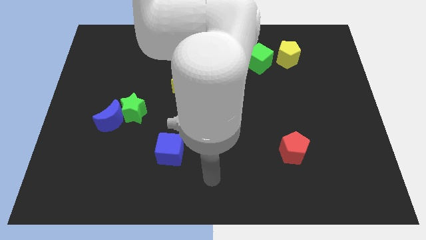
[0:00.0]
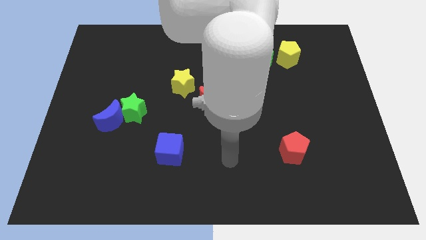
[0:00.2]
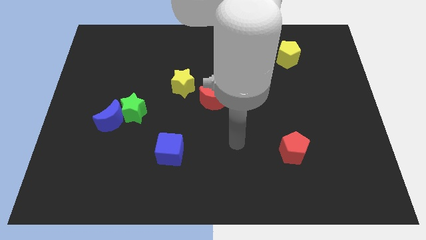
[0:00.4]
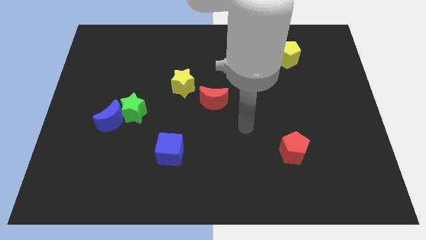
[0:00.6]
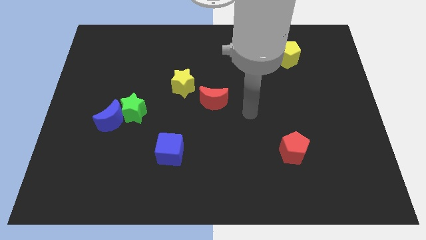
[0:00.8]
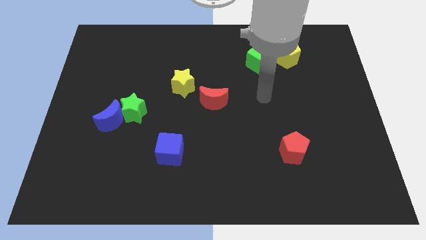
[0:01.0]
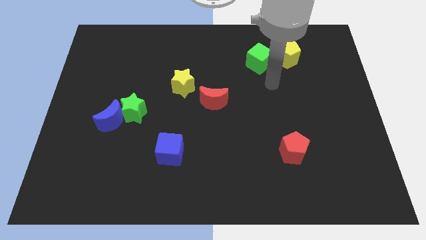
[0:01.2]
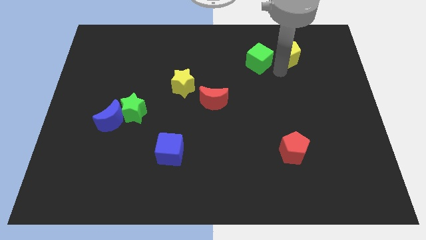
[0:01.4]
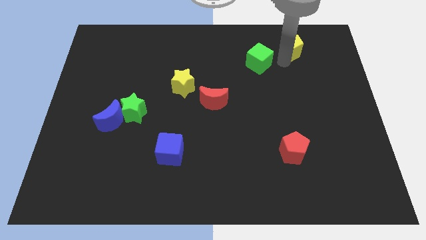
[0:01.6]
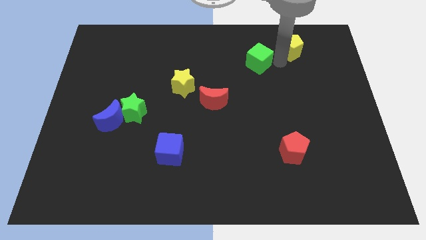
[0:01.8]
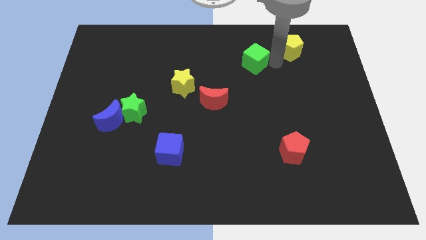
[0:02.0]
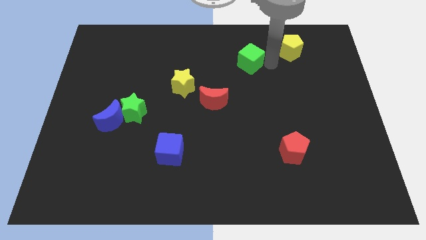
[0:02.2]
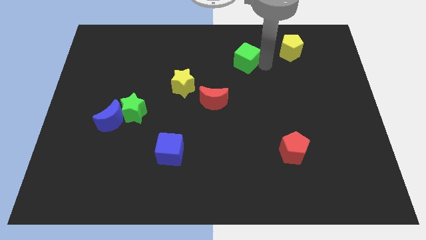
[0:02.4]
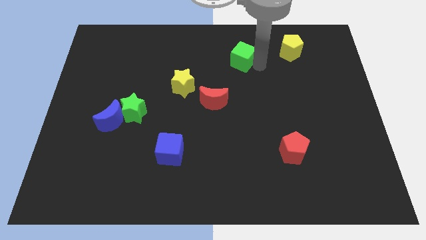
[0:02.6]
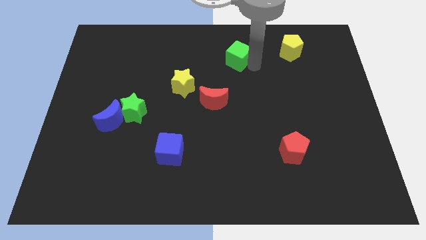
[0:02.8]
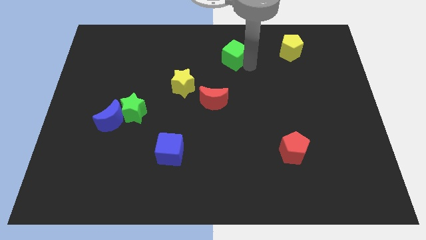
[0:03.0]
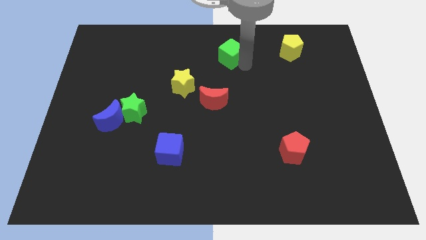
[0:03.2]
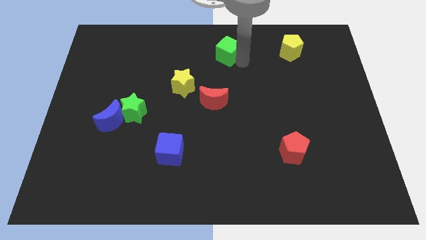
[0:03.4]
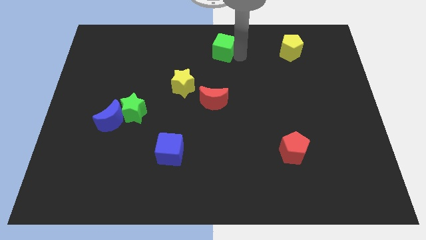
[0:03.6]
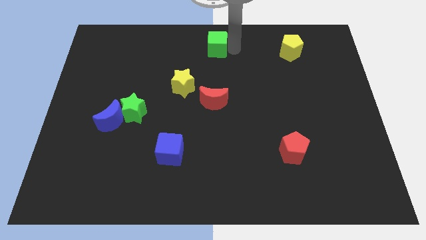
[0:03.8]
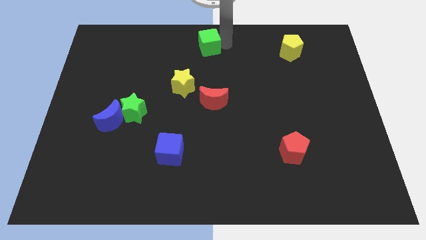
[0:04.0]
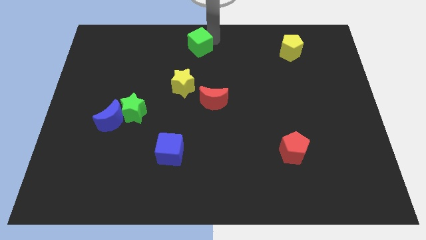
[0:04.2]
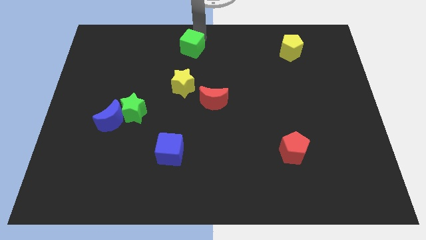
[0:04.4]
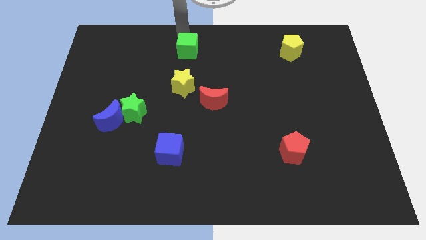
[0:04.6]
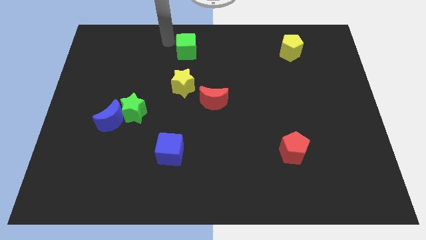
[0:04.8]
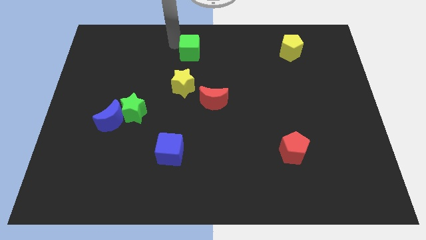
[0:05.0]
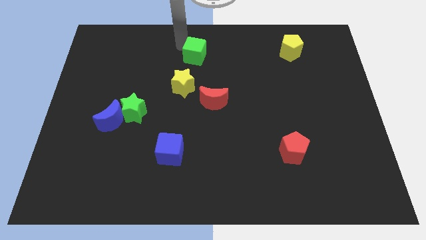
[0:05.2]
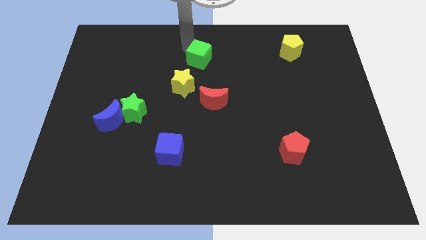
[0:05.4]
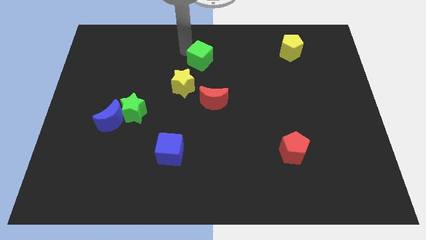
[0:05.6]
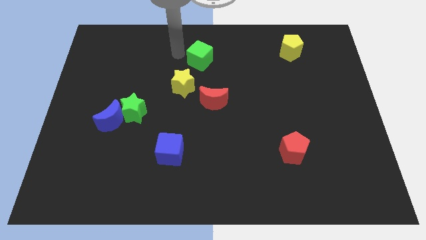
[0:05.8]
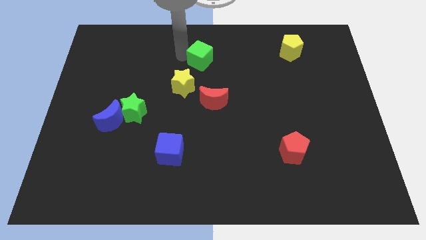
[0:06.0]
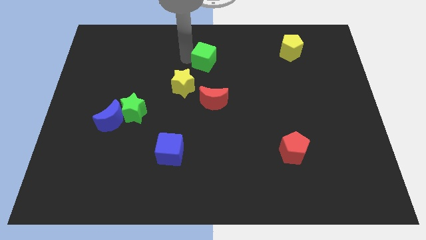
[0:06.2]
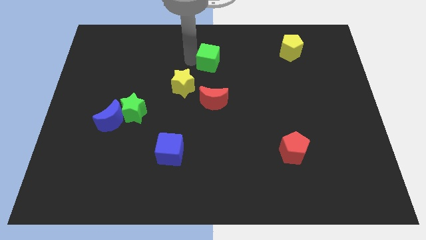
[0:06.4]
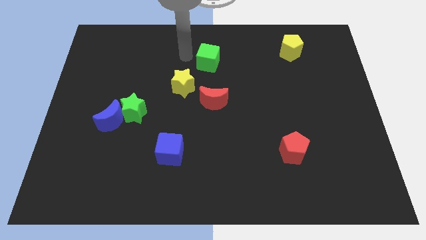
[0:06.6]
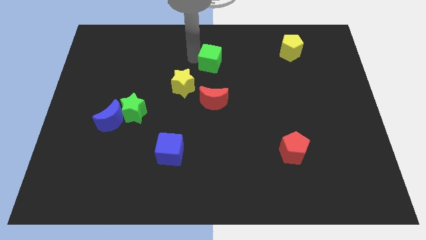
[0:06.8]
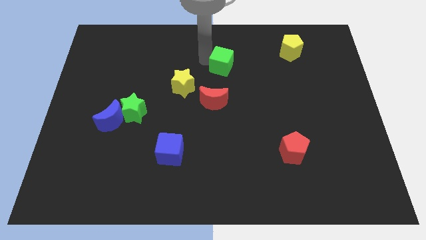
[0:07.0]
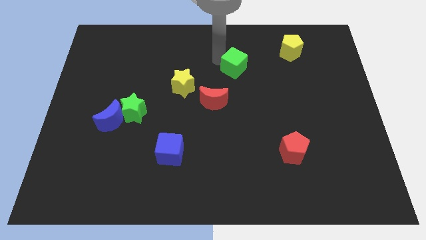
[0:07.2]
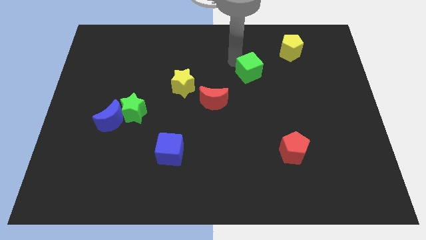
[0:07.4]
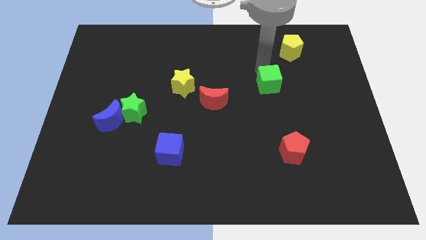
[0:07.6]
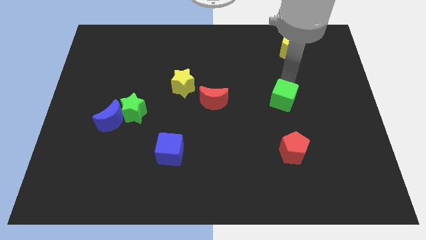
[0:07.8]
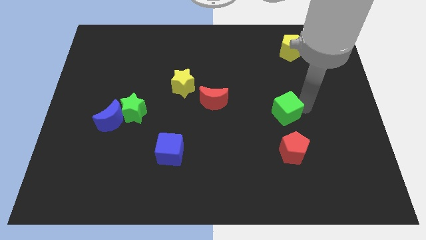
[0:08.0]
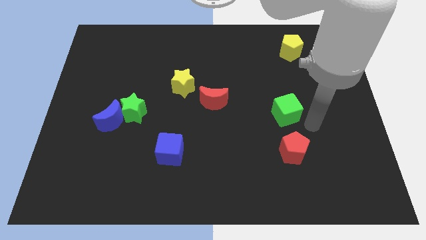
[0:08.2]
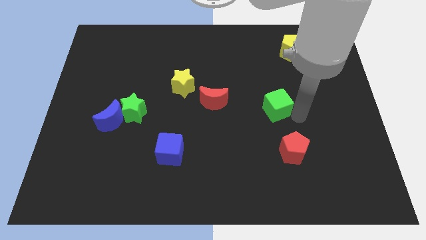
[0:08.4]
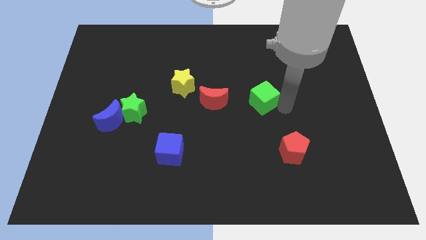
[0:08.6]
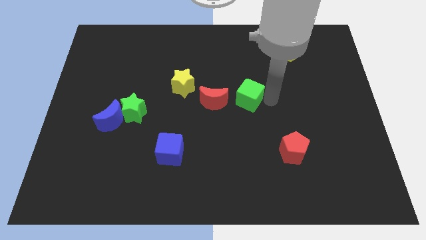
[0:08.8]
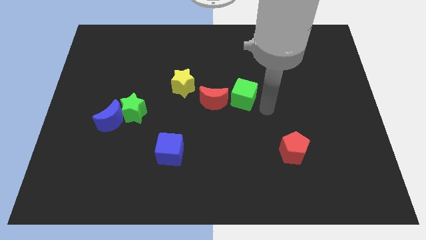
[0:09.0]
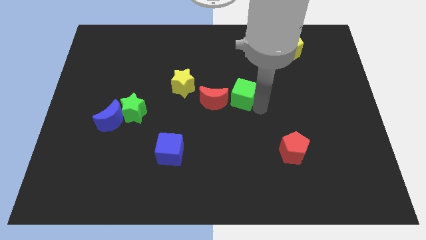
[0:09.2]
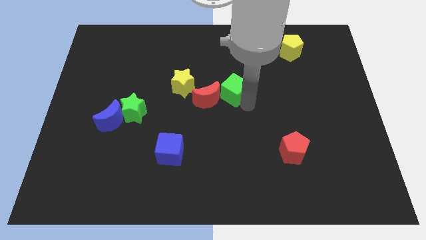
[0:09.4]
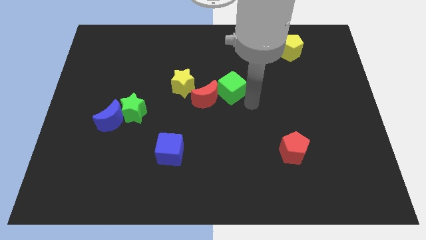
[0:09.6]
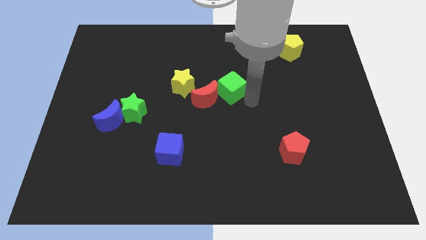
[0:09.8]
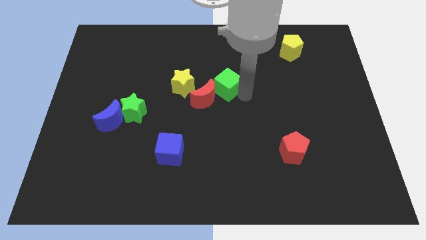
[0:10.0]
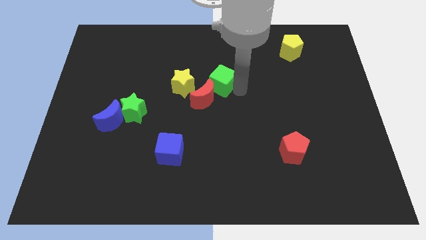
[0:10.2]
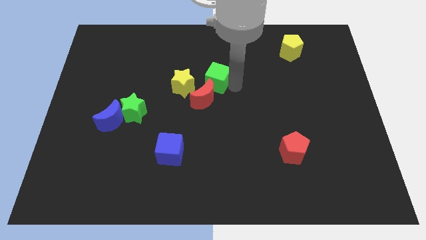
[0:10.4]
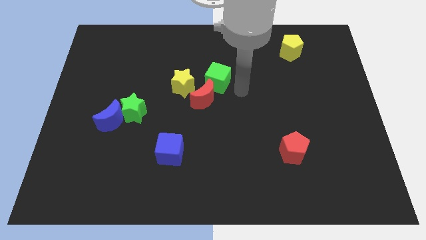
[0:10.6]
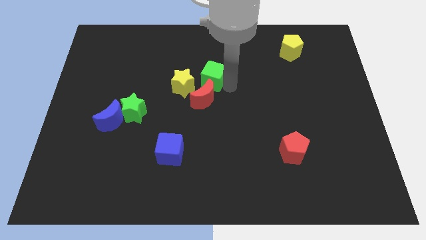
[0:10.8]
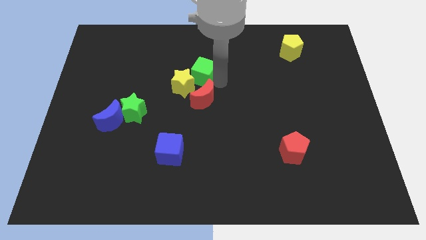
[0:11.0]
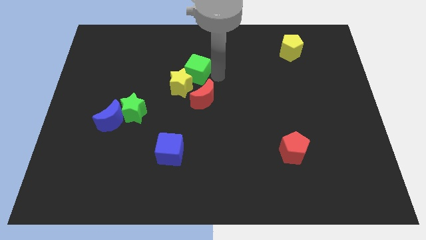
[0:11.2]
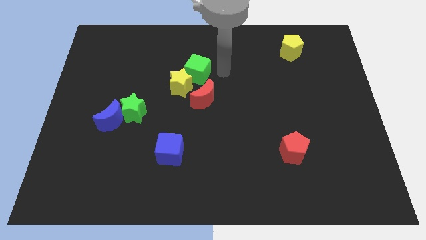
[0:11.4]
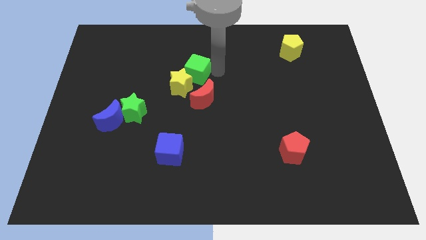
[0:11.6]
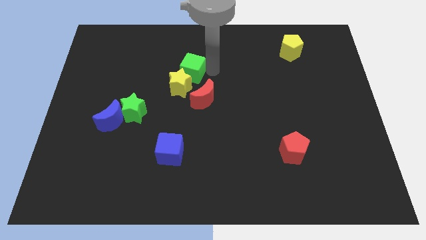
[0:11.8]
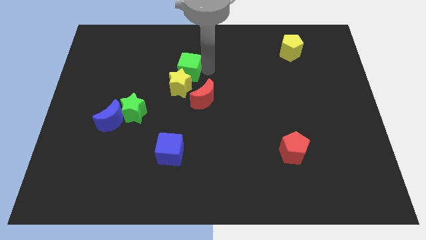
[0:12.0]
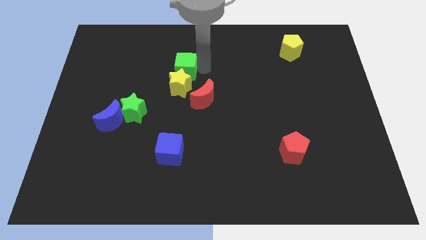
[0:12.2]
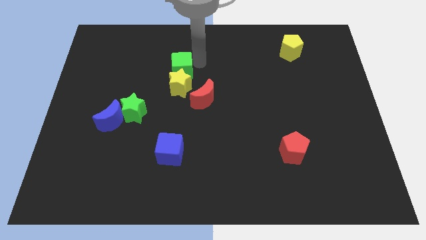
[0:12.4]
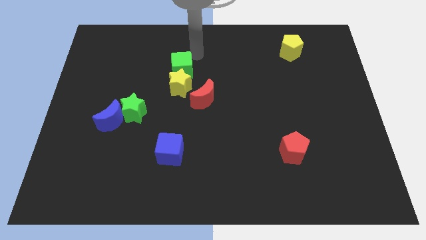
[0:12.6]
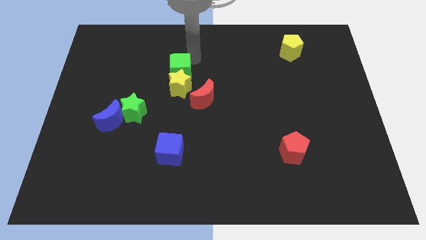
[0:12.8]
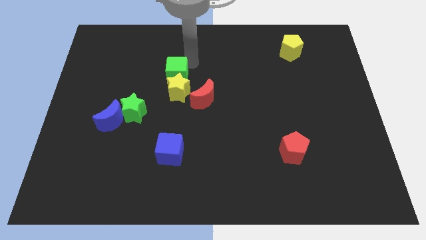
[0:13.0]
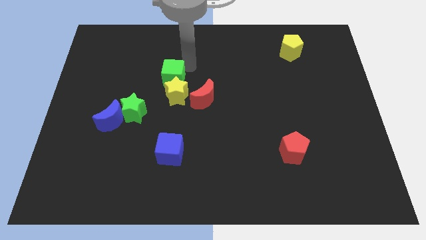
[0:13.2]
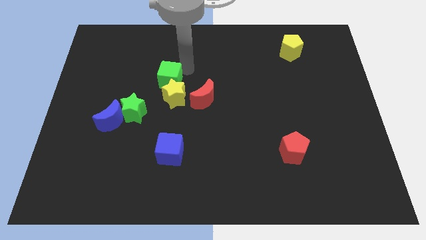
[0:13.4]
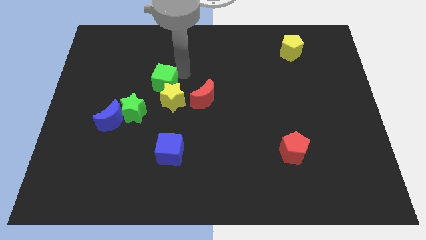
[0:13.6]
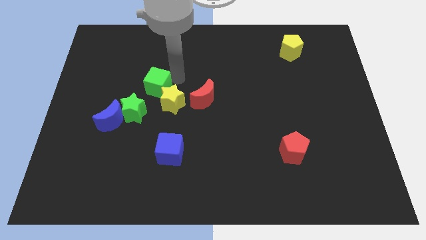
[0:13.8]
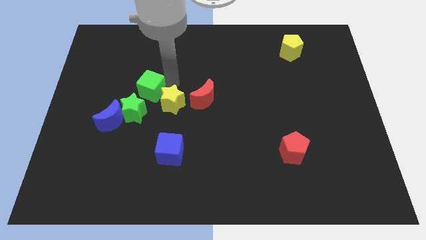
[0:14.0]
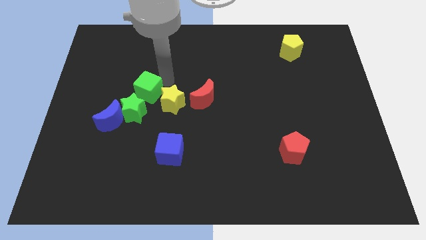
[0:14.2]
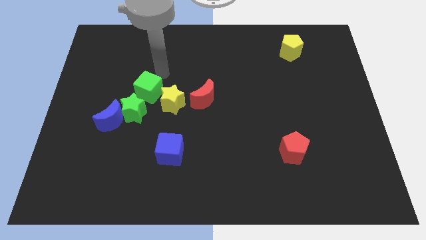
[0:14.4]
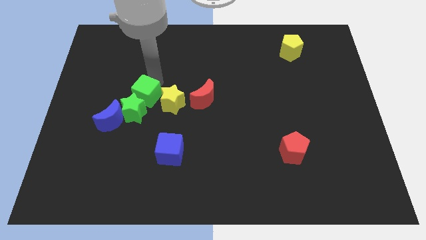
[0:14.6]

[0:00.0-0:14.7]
move the green cube to the green star
